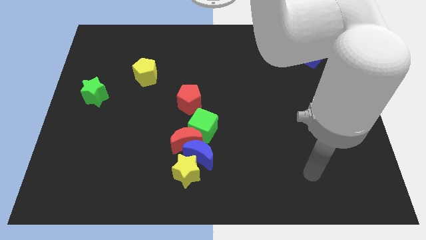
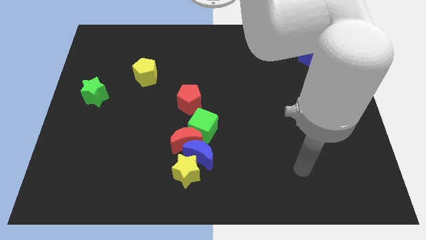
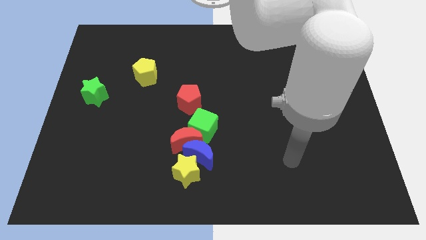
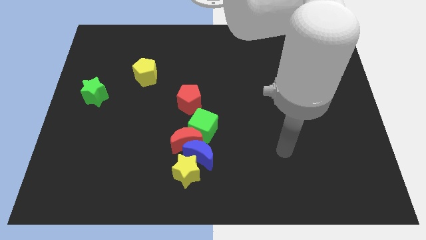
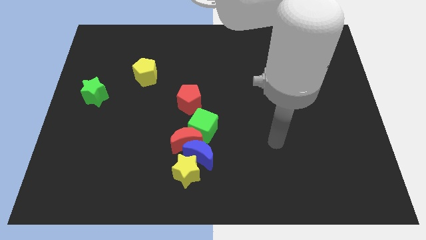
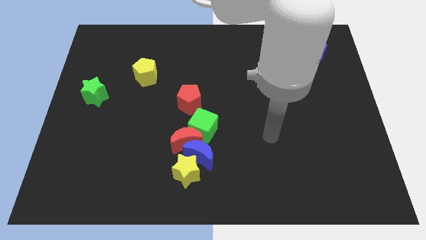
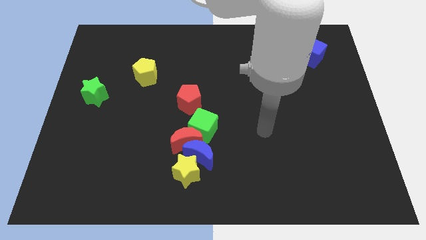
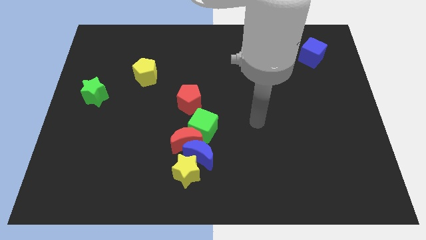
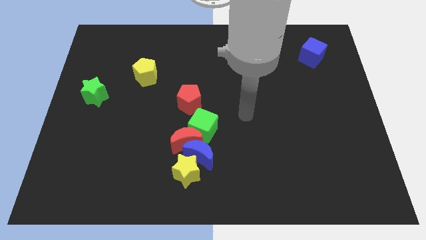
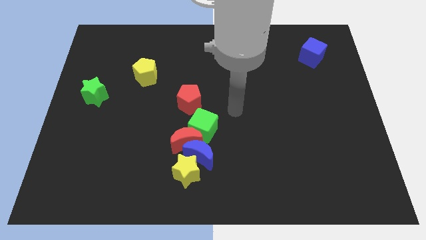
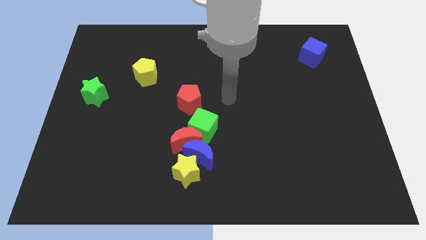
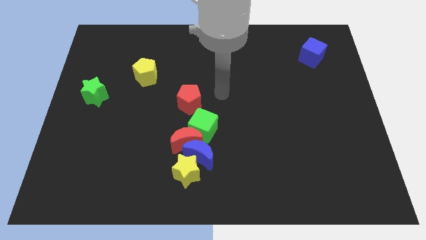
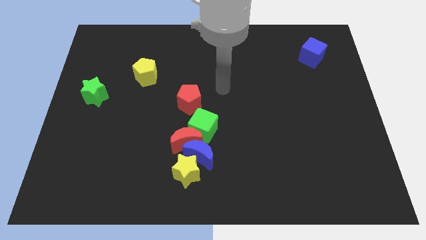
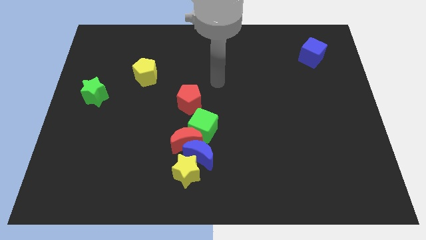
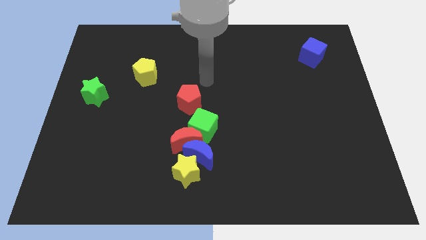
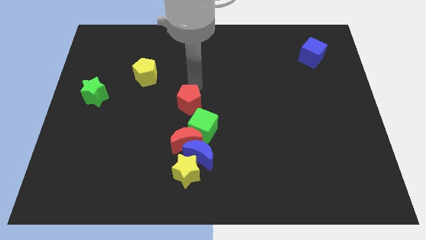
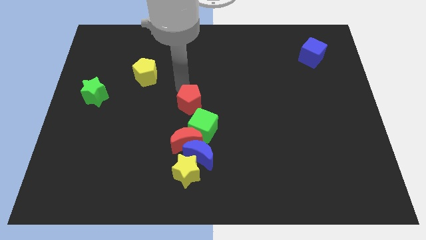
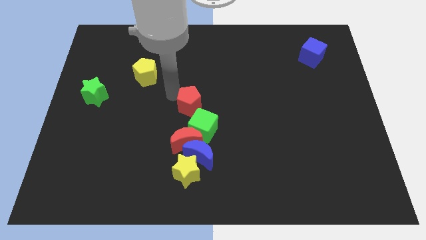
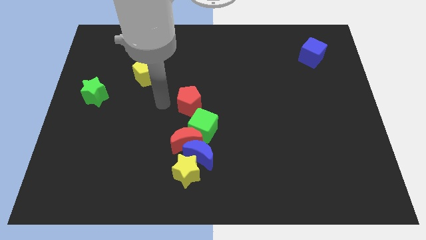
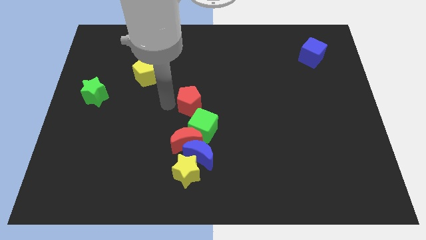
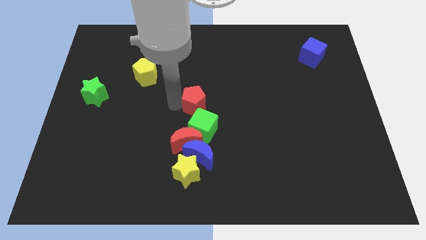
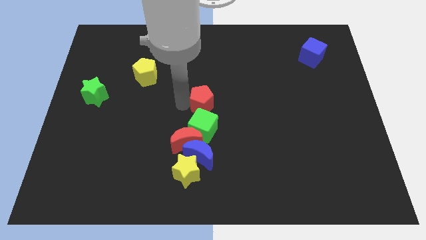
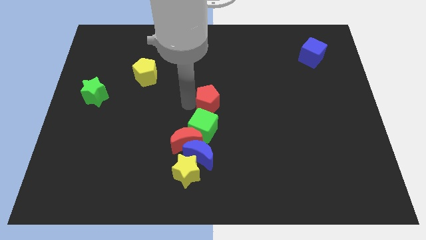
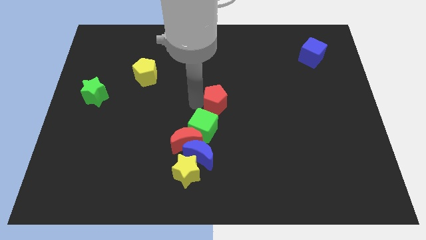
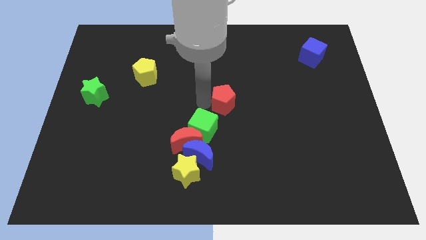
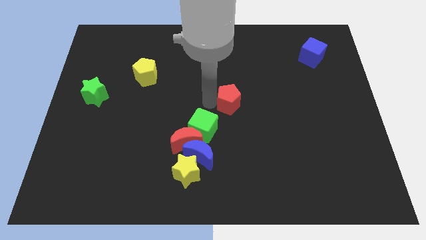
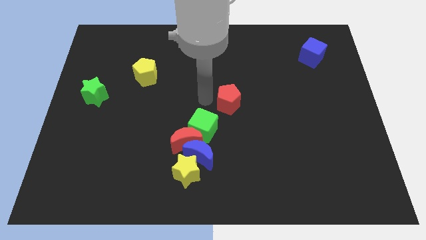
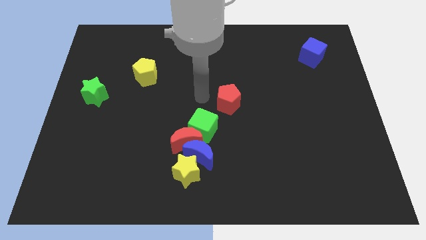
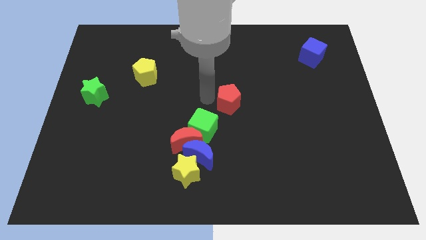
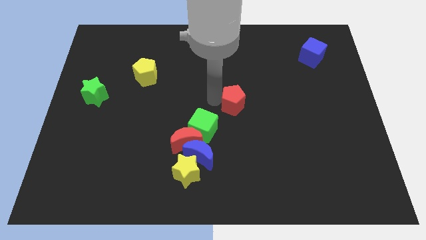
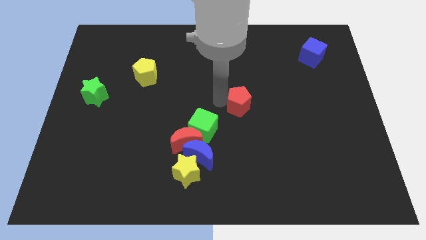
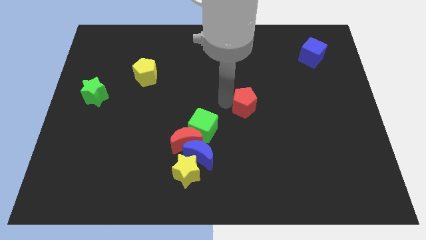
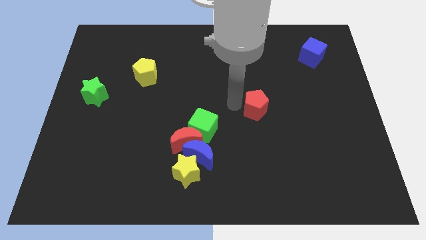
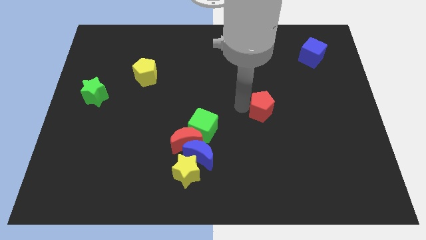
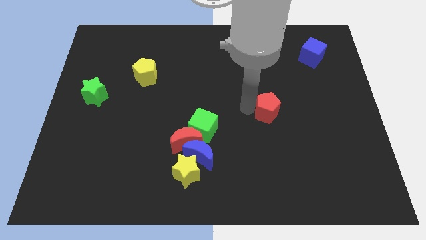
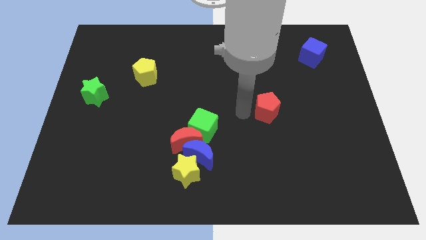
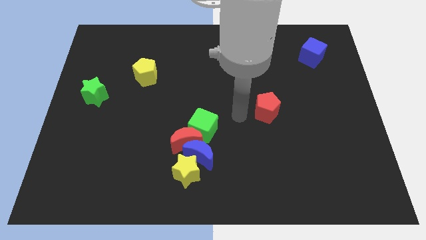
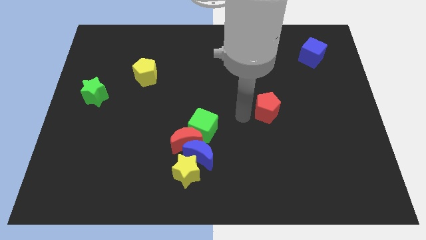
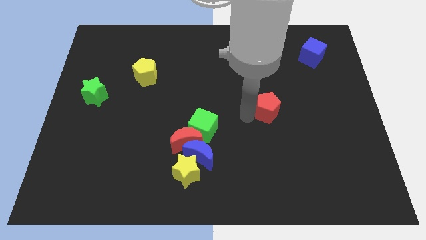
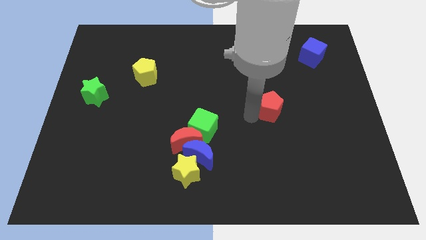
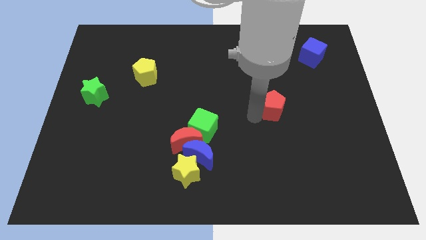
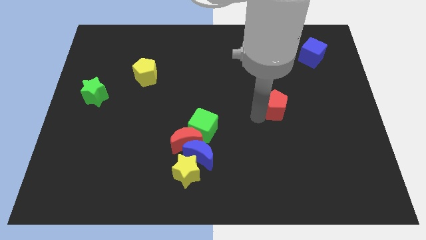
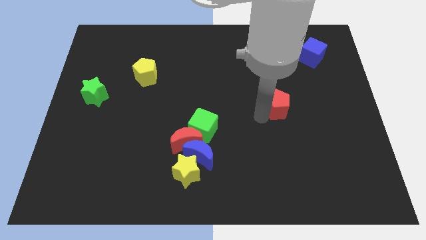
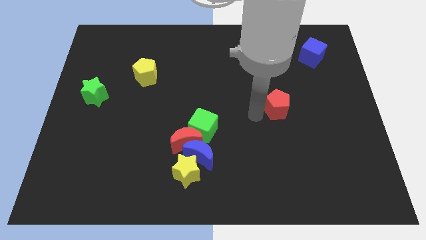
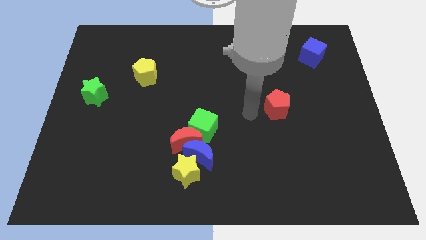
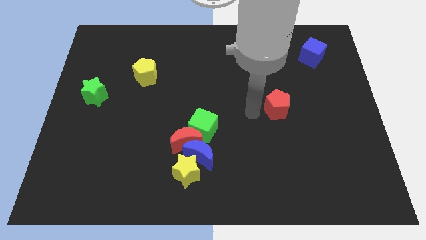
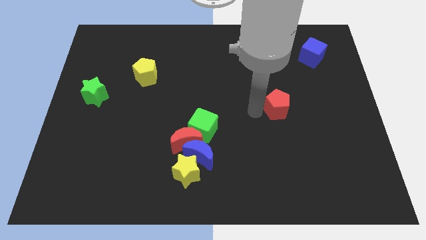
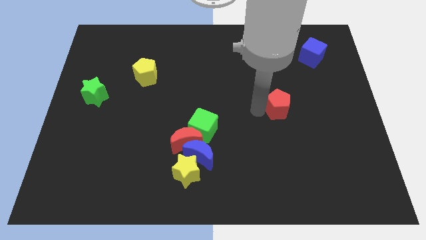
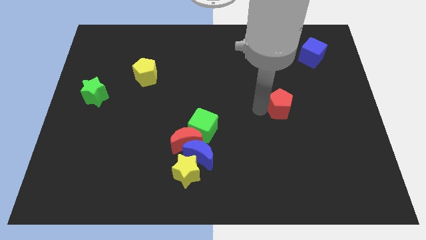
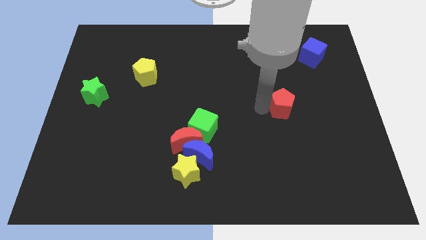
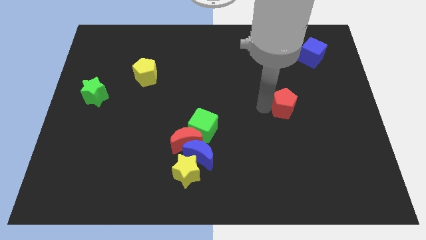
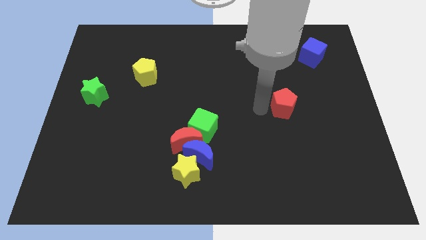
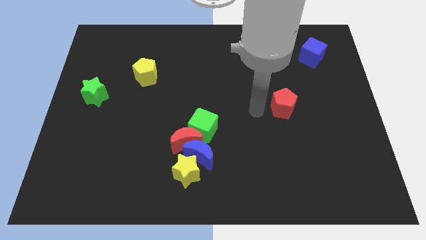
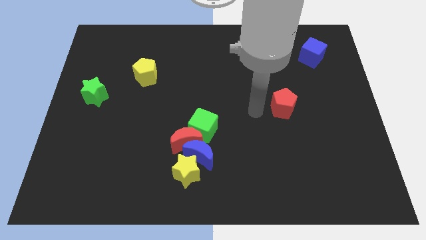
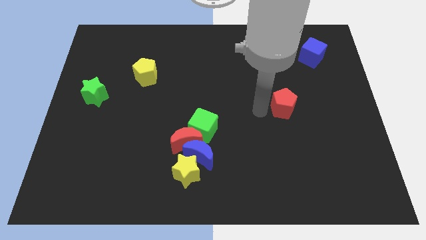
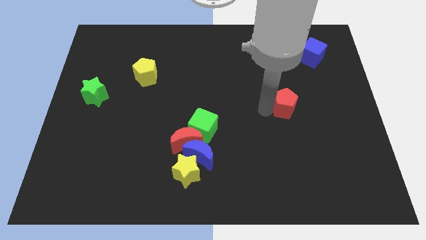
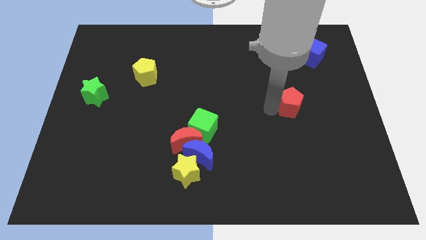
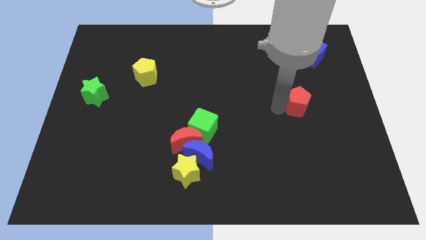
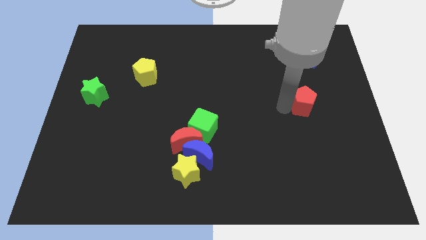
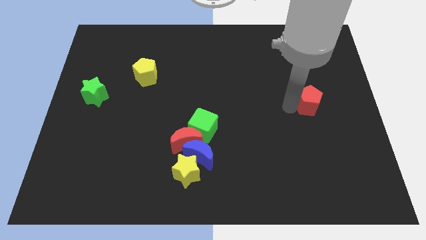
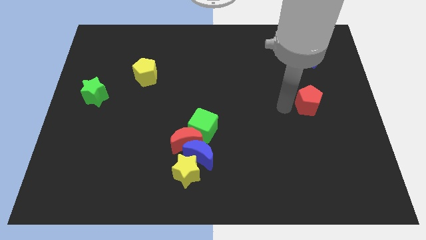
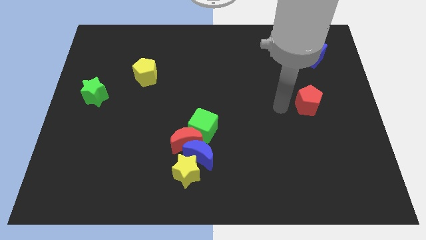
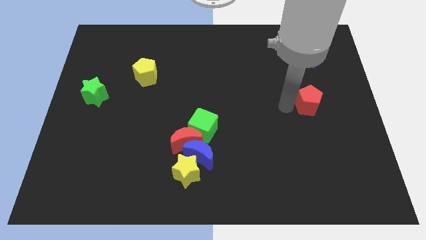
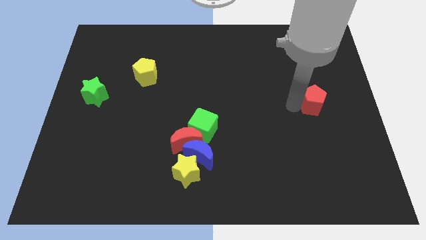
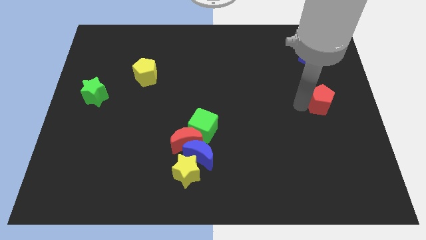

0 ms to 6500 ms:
move the red pentagon to the right side of the board
